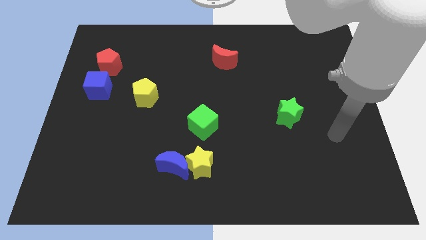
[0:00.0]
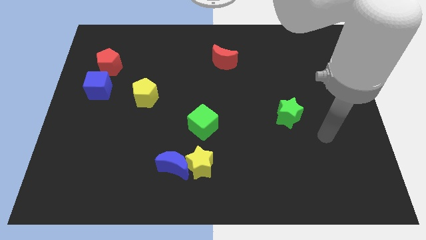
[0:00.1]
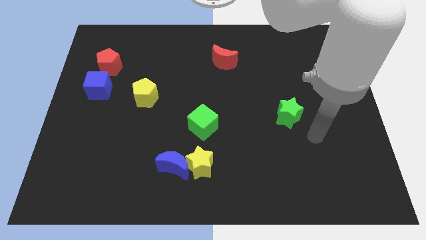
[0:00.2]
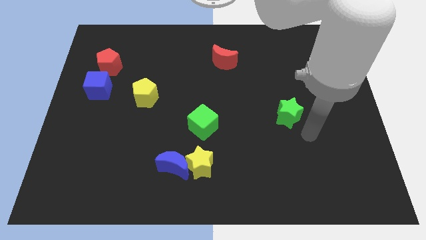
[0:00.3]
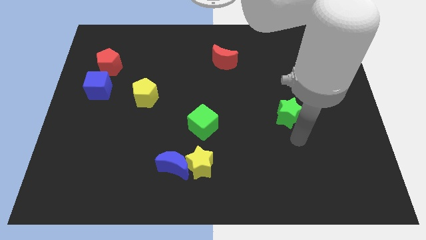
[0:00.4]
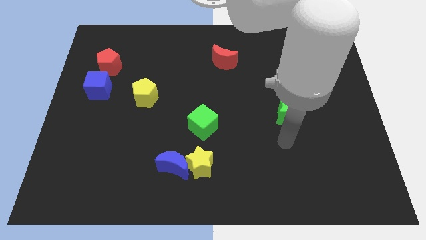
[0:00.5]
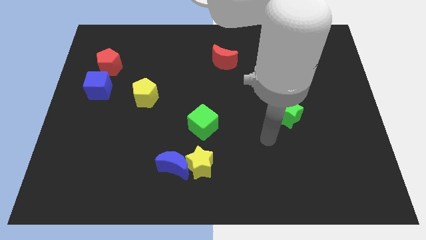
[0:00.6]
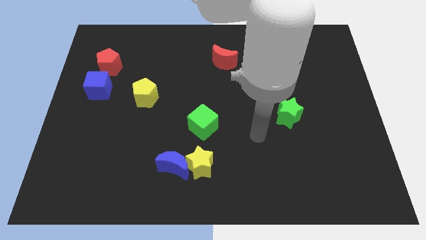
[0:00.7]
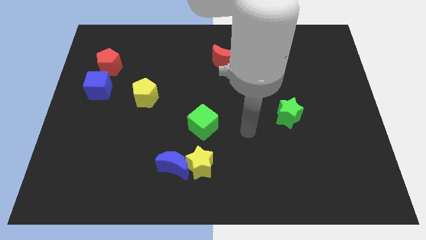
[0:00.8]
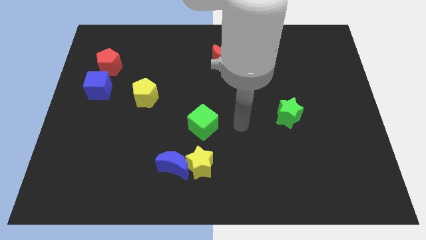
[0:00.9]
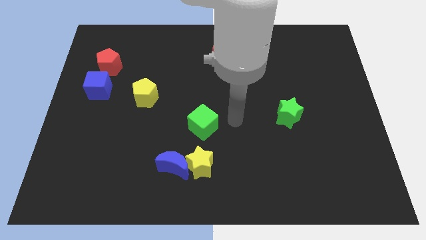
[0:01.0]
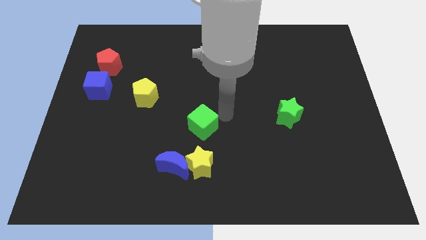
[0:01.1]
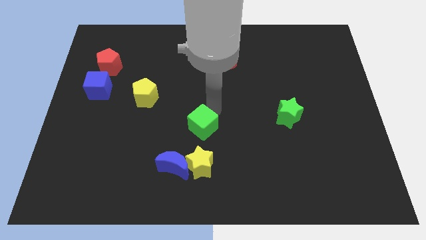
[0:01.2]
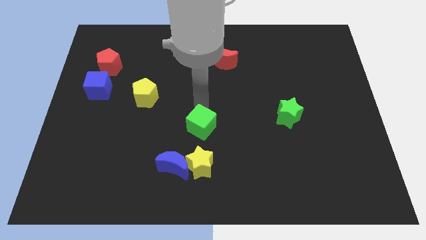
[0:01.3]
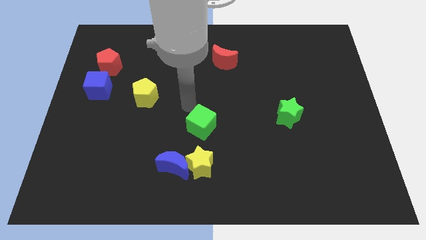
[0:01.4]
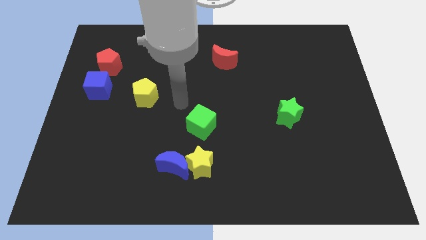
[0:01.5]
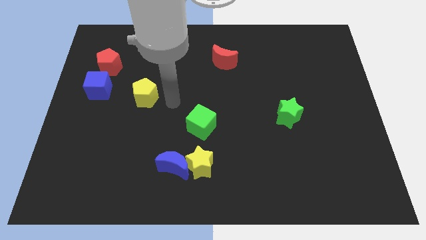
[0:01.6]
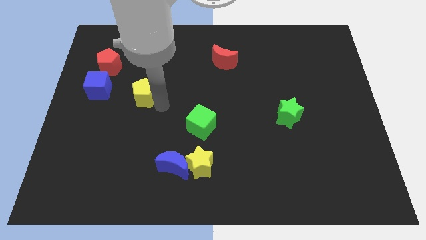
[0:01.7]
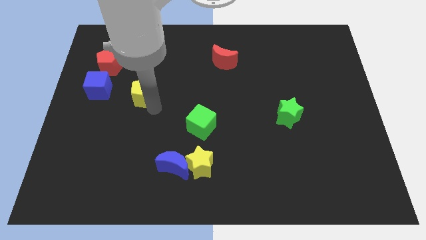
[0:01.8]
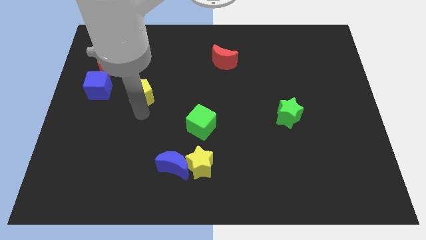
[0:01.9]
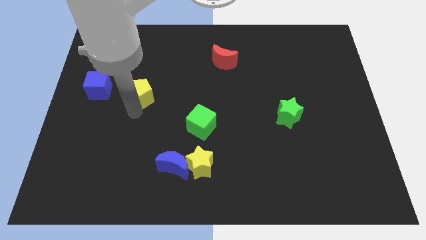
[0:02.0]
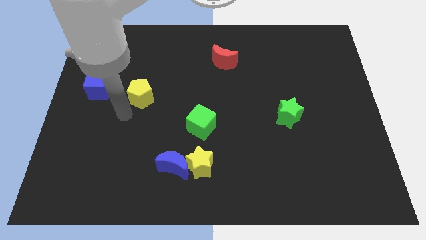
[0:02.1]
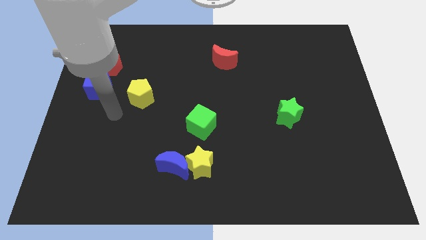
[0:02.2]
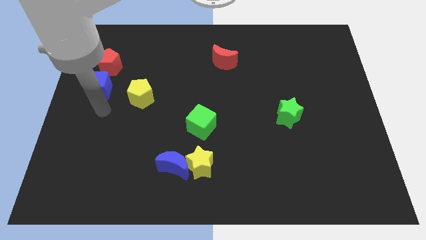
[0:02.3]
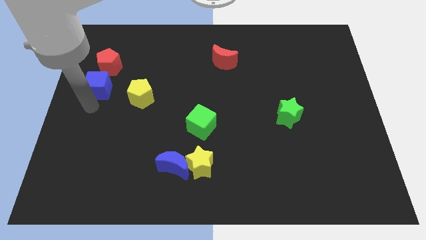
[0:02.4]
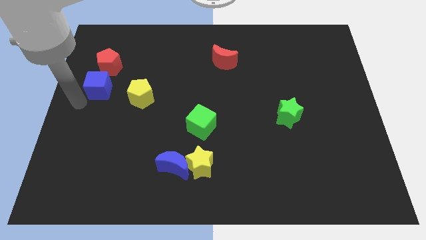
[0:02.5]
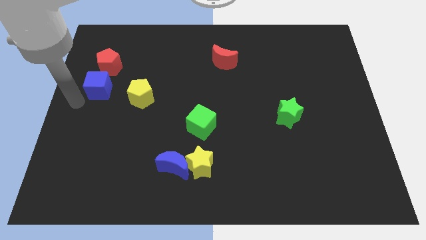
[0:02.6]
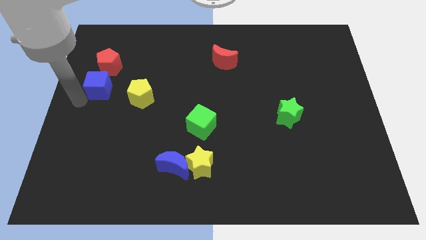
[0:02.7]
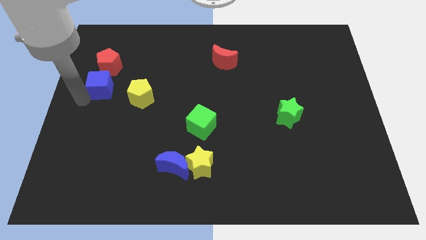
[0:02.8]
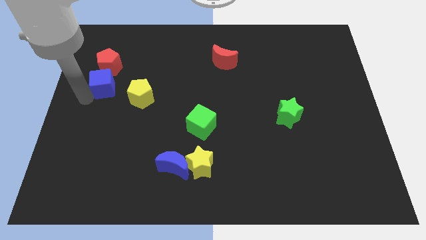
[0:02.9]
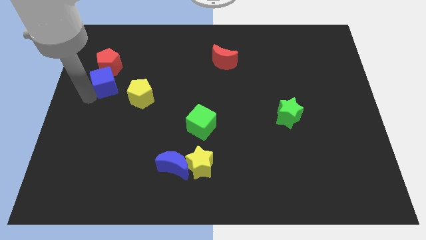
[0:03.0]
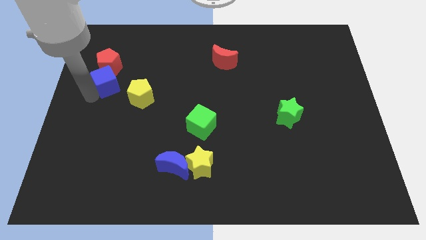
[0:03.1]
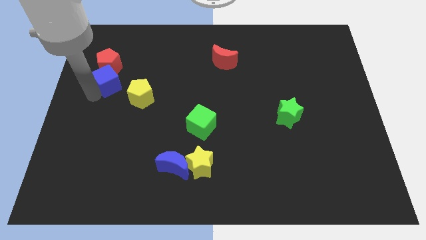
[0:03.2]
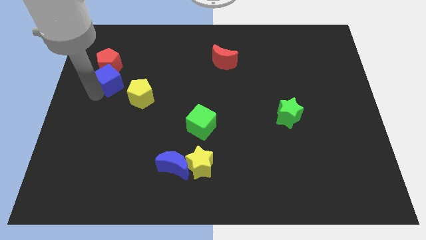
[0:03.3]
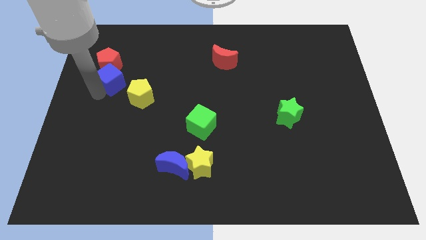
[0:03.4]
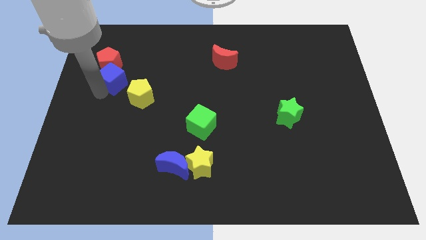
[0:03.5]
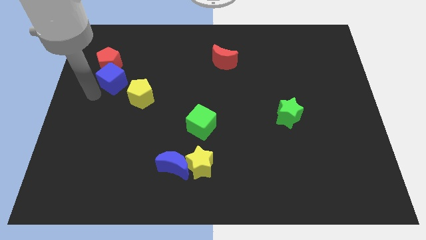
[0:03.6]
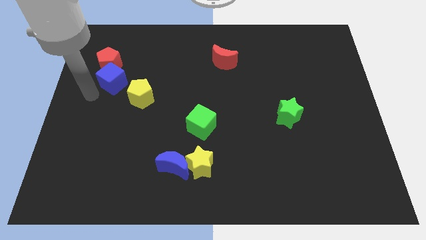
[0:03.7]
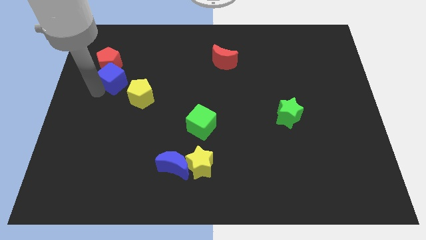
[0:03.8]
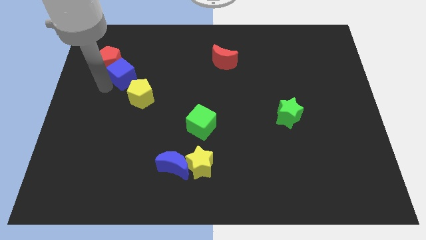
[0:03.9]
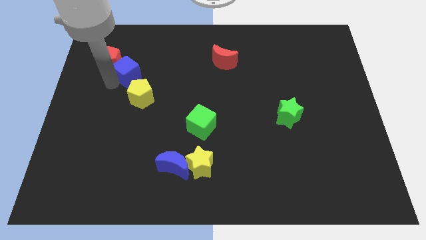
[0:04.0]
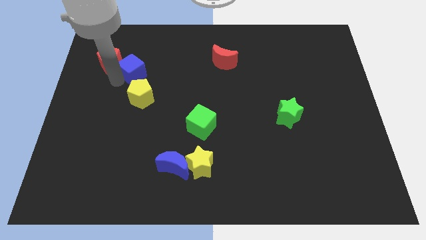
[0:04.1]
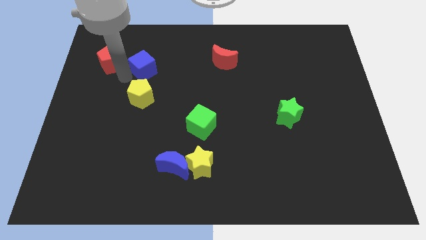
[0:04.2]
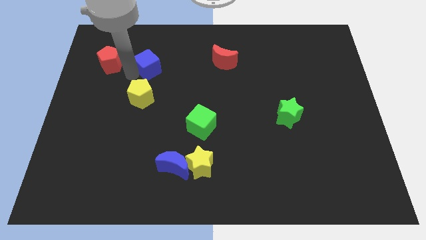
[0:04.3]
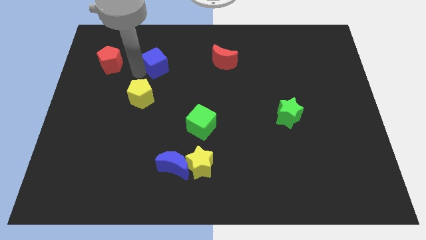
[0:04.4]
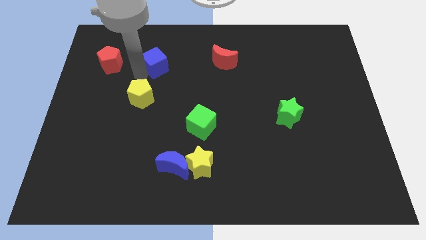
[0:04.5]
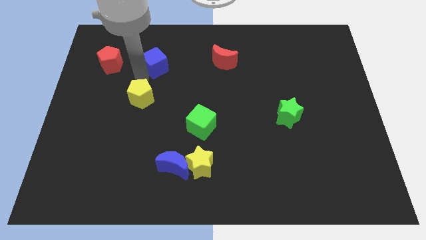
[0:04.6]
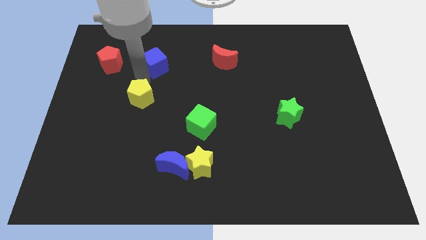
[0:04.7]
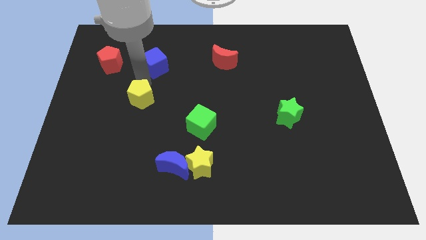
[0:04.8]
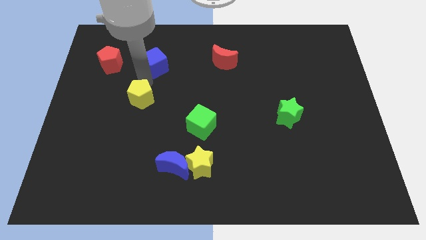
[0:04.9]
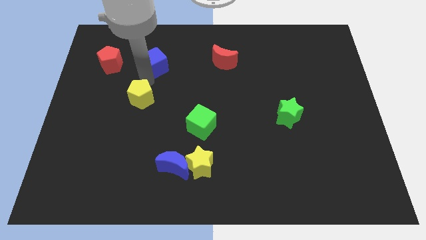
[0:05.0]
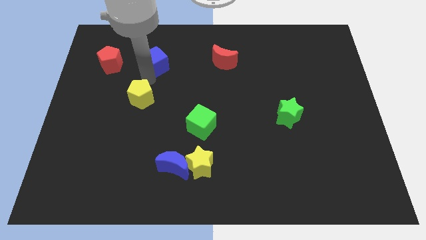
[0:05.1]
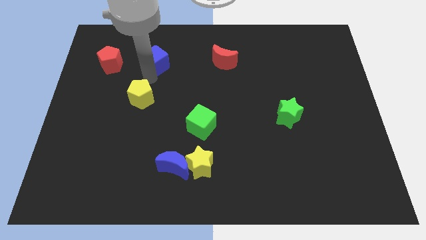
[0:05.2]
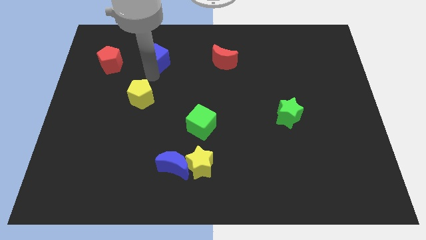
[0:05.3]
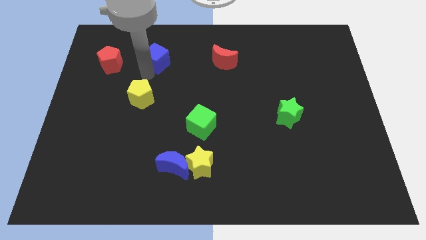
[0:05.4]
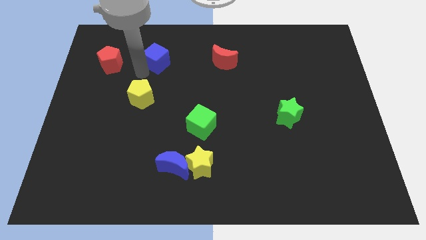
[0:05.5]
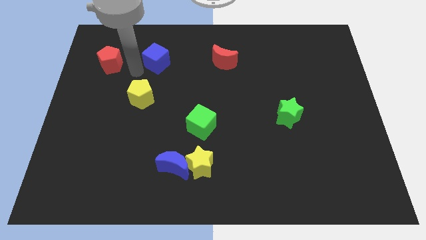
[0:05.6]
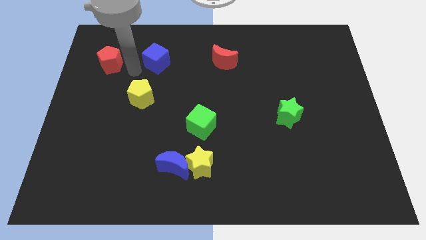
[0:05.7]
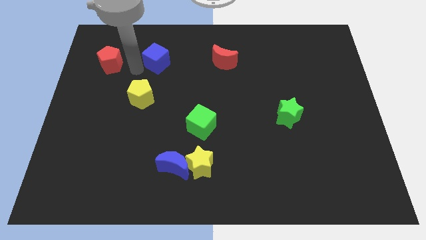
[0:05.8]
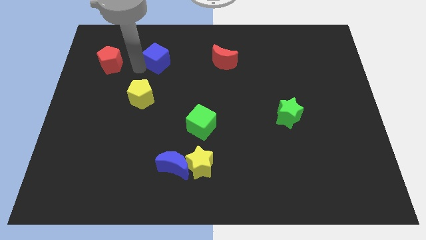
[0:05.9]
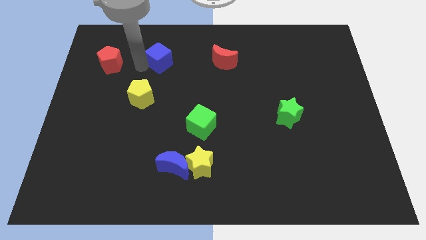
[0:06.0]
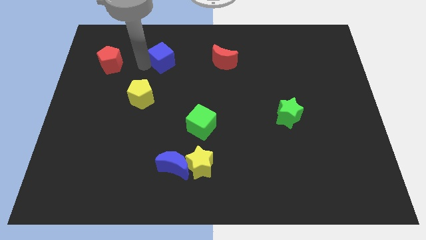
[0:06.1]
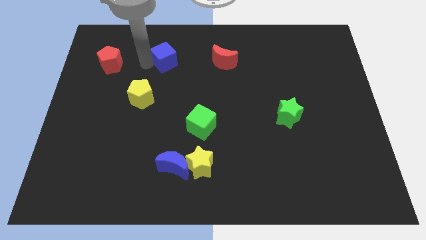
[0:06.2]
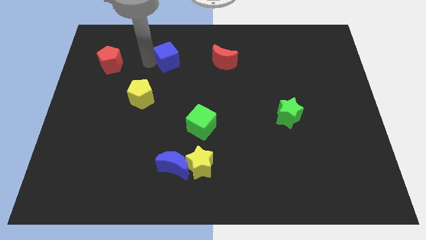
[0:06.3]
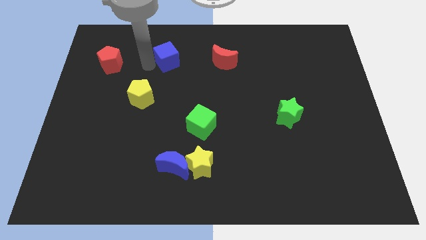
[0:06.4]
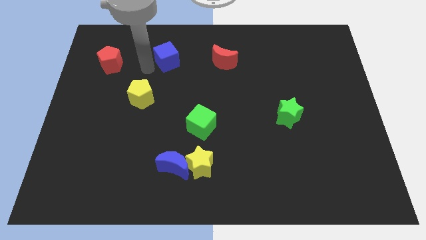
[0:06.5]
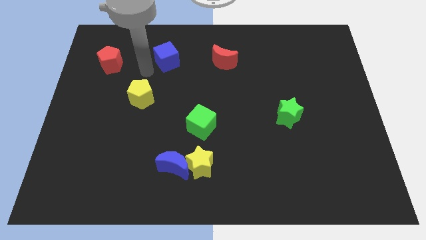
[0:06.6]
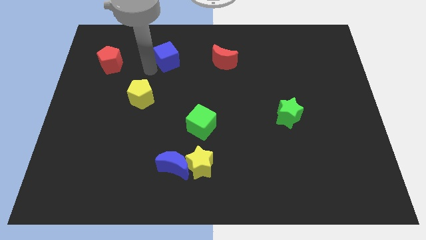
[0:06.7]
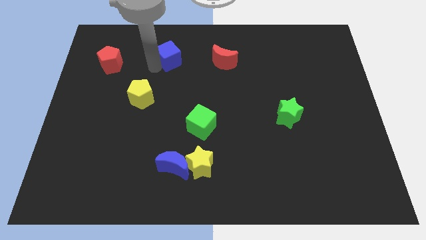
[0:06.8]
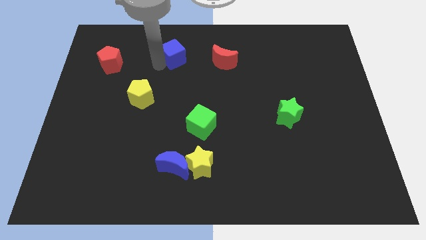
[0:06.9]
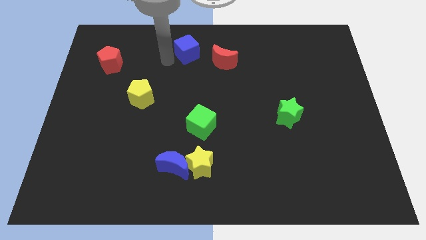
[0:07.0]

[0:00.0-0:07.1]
slide the blue cube to the top side
